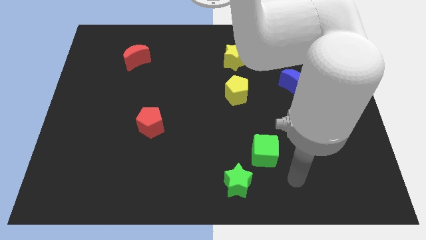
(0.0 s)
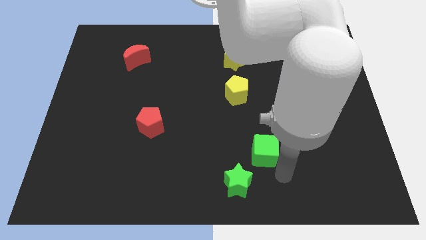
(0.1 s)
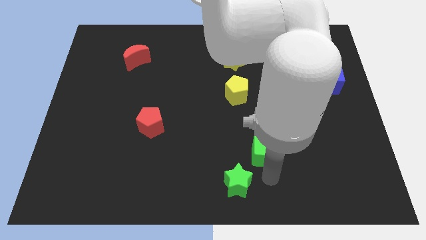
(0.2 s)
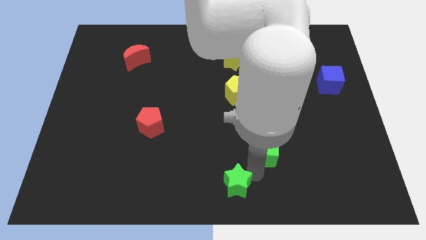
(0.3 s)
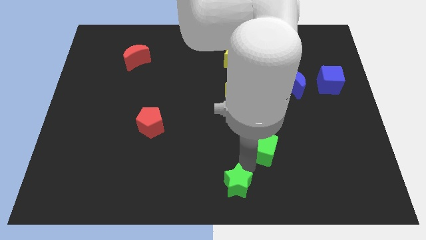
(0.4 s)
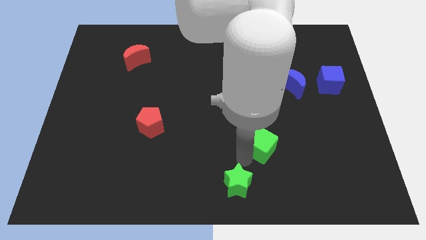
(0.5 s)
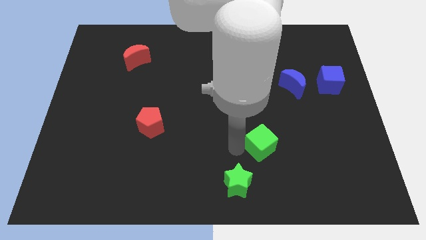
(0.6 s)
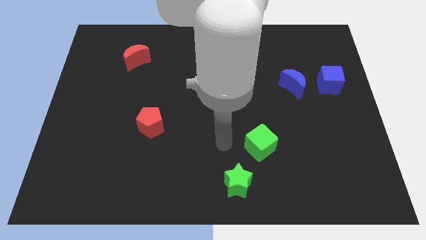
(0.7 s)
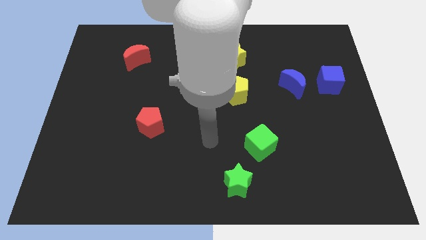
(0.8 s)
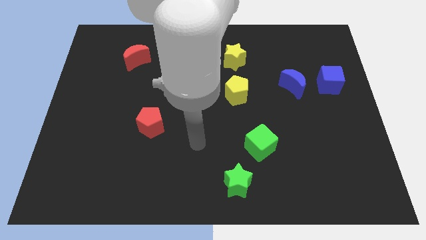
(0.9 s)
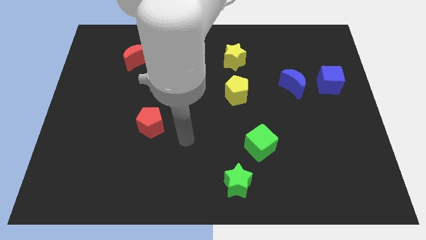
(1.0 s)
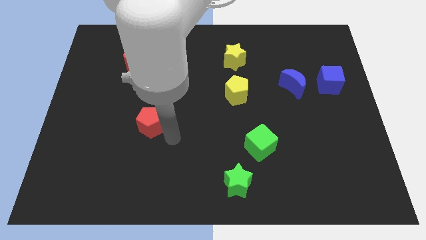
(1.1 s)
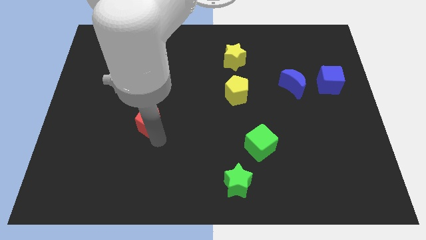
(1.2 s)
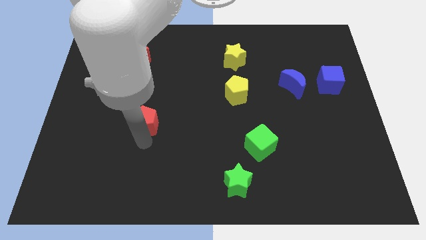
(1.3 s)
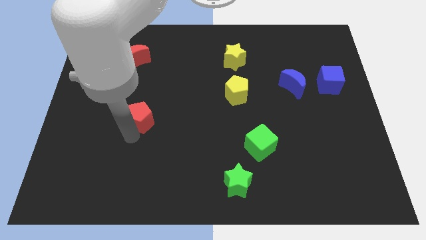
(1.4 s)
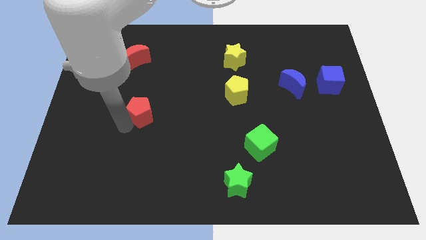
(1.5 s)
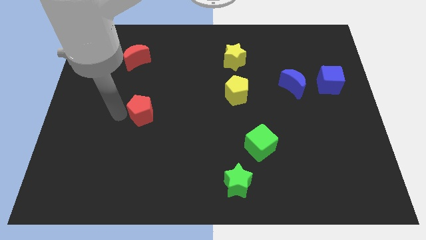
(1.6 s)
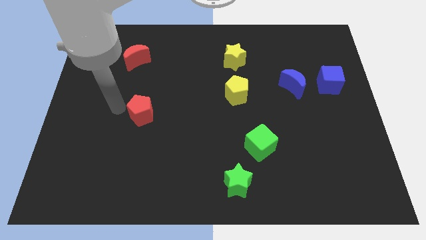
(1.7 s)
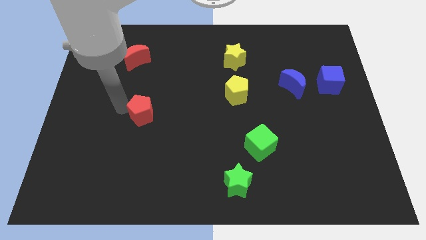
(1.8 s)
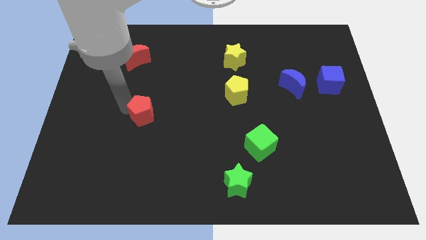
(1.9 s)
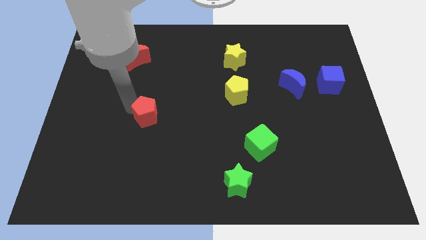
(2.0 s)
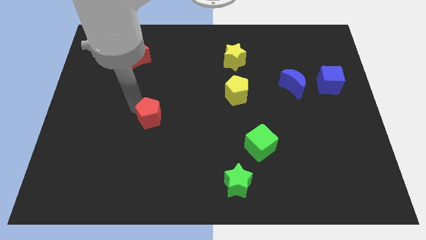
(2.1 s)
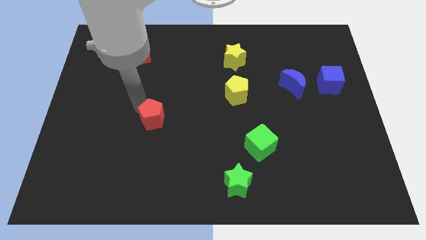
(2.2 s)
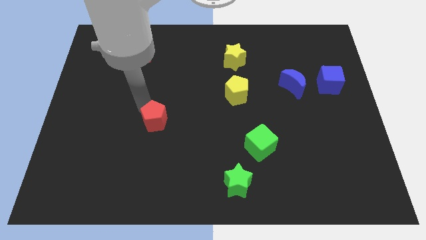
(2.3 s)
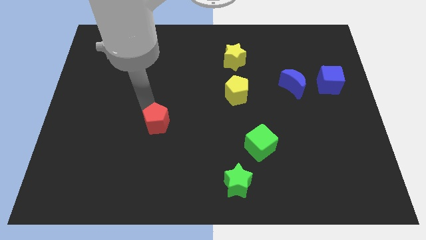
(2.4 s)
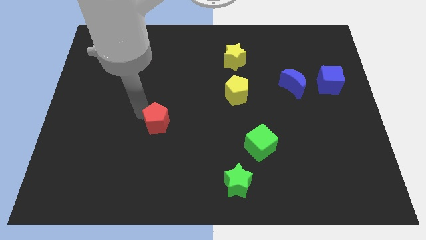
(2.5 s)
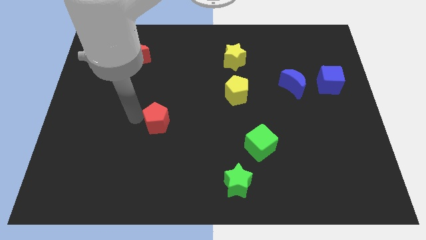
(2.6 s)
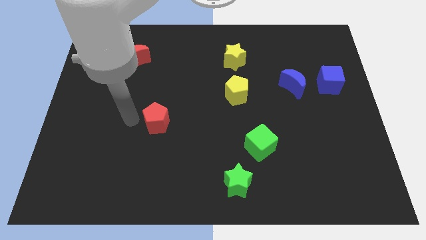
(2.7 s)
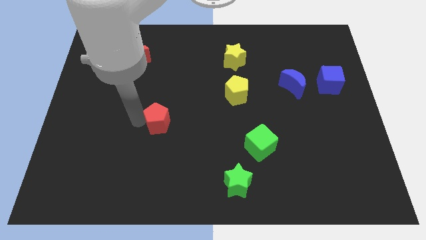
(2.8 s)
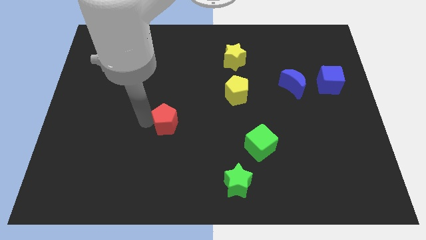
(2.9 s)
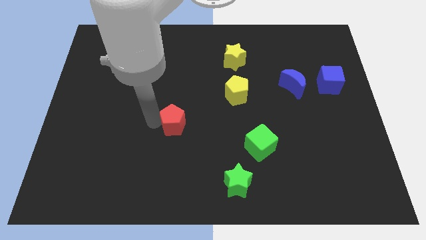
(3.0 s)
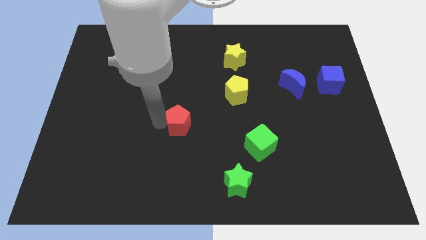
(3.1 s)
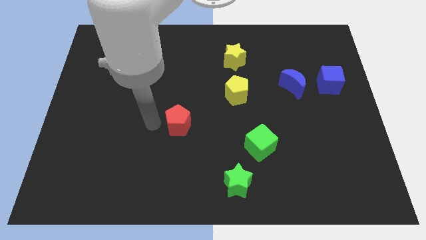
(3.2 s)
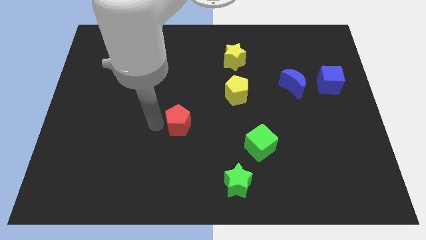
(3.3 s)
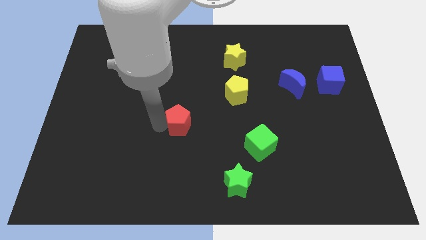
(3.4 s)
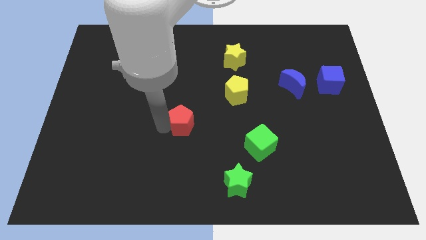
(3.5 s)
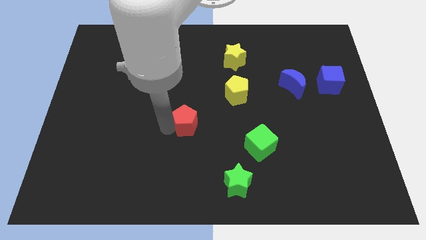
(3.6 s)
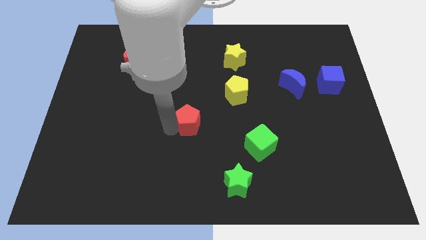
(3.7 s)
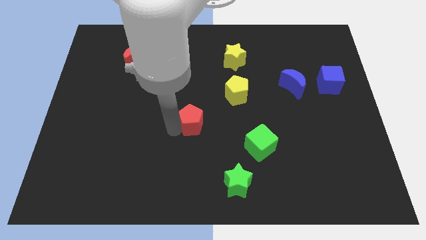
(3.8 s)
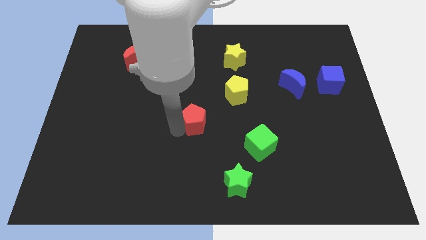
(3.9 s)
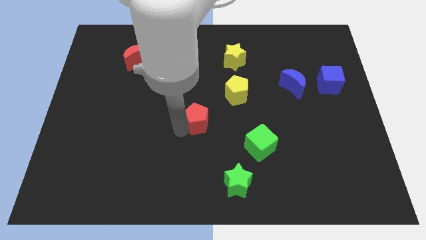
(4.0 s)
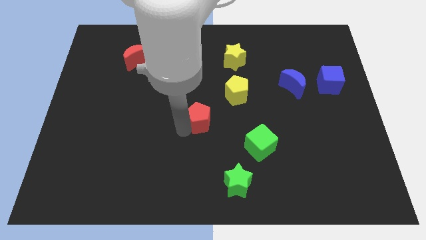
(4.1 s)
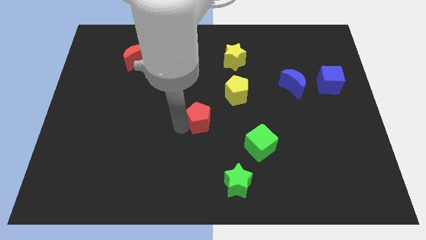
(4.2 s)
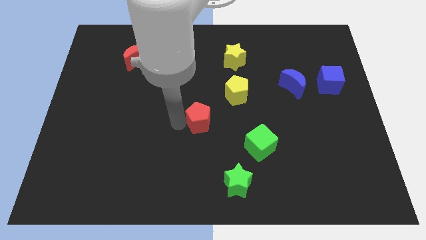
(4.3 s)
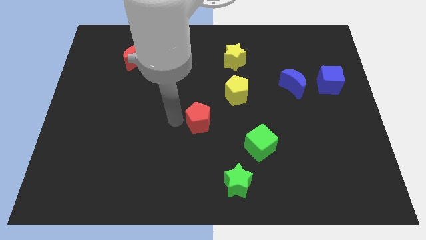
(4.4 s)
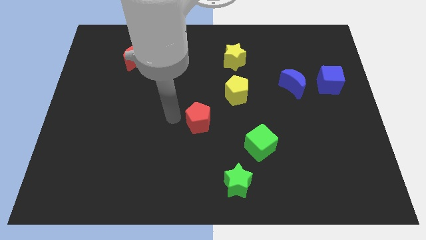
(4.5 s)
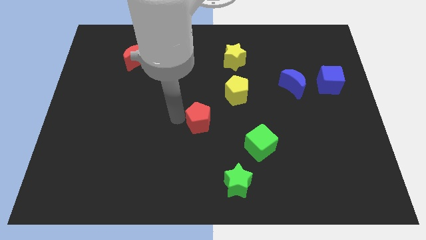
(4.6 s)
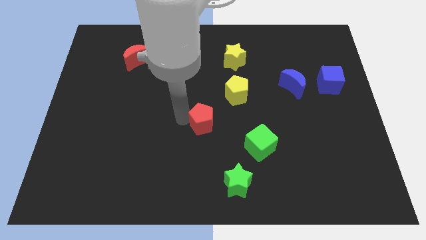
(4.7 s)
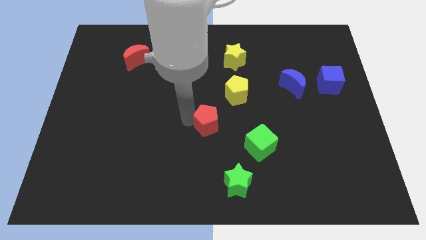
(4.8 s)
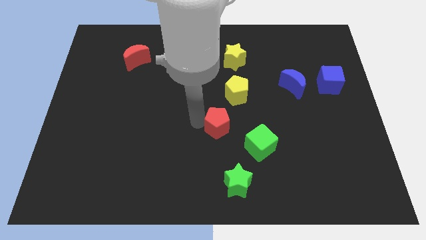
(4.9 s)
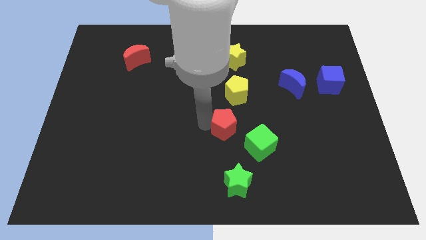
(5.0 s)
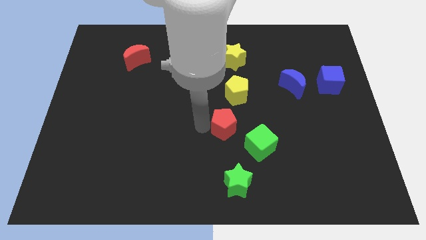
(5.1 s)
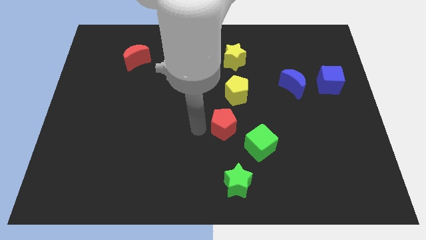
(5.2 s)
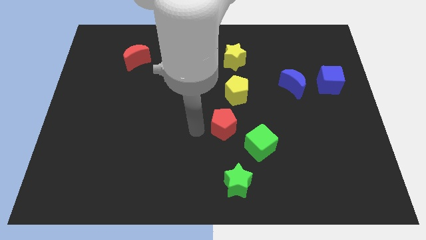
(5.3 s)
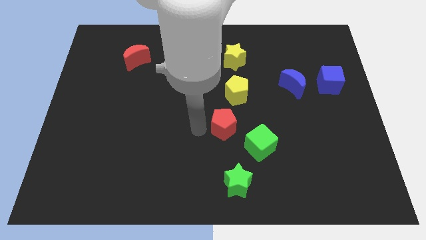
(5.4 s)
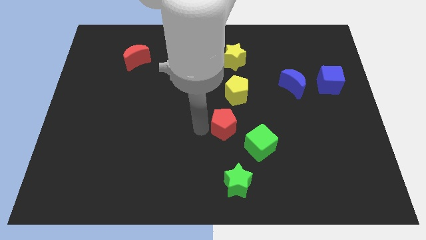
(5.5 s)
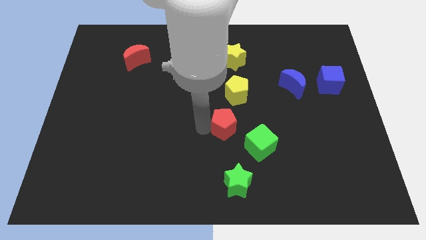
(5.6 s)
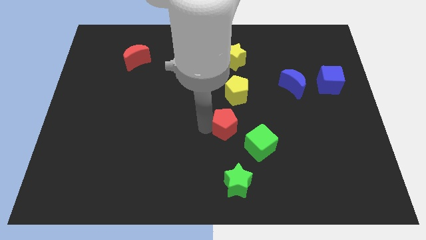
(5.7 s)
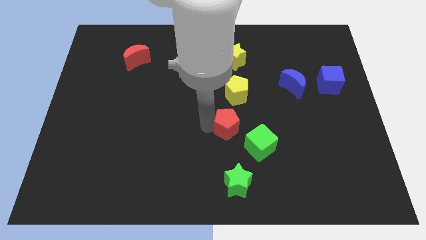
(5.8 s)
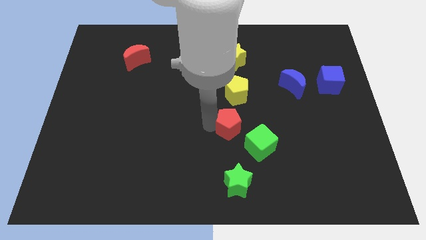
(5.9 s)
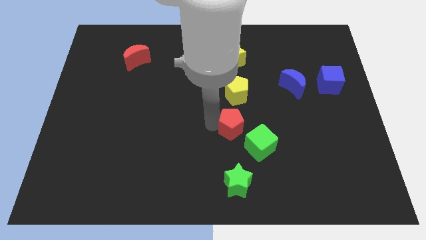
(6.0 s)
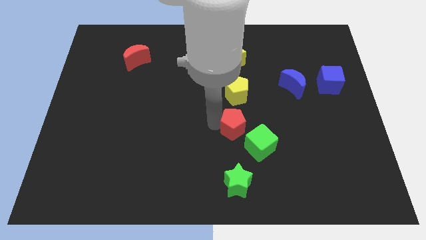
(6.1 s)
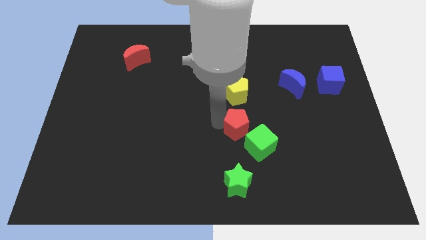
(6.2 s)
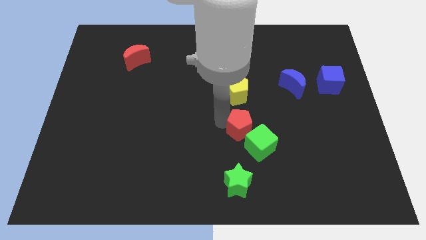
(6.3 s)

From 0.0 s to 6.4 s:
push the red pentagon to the right

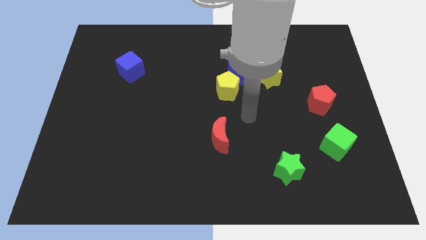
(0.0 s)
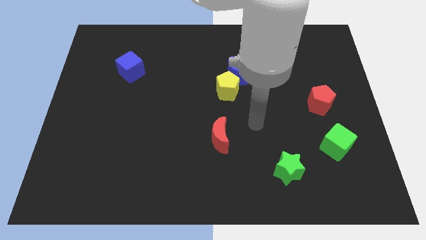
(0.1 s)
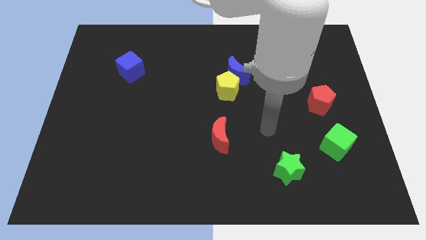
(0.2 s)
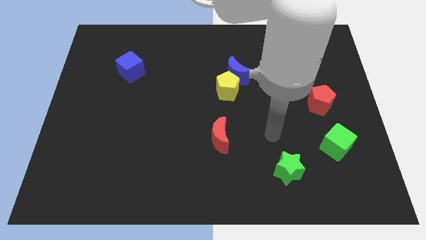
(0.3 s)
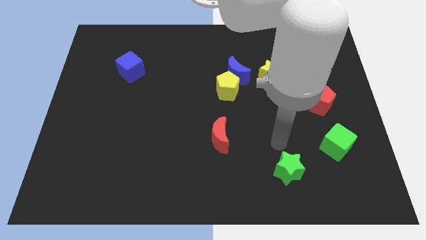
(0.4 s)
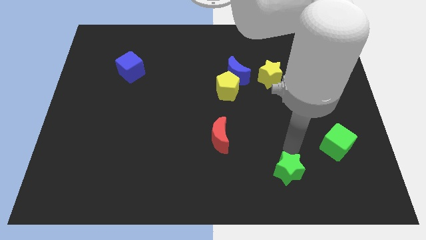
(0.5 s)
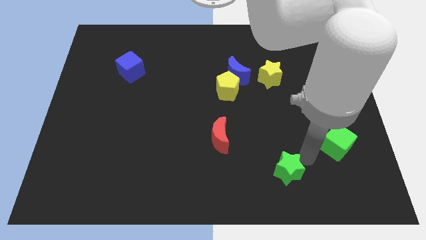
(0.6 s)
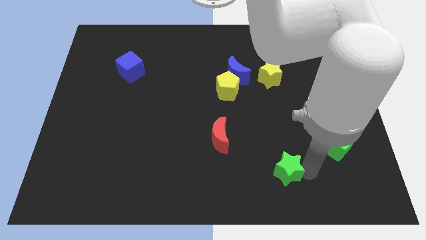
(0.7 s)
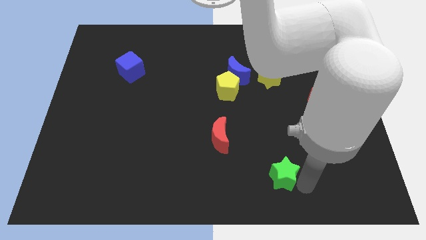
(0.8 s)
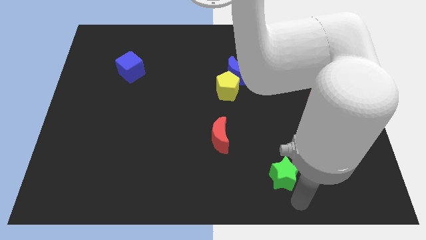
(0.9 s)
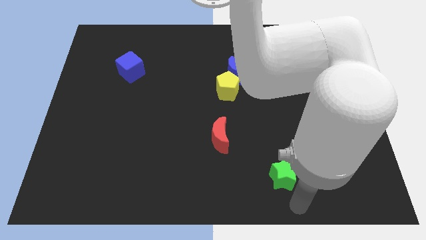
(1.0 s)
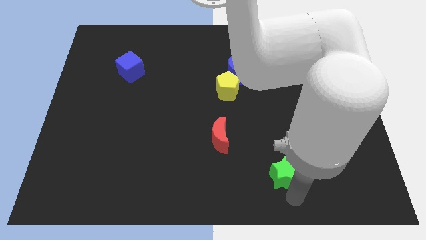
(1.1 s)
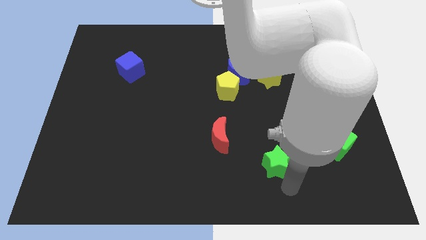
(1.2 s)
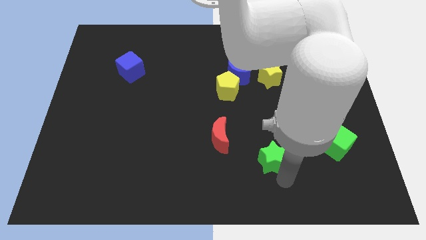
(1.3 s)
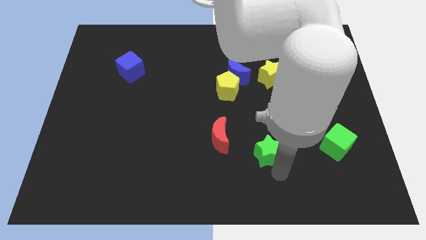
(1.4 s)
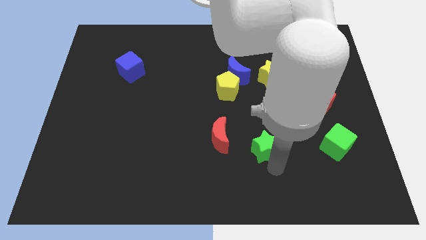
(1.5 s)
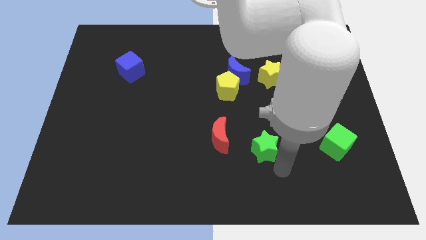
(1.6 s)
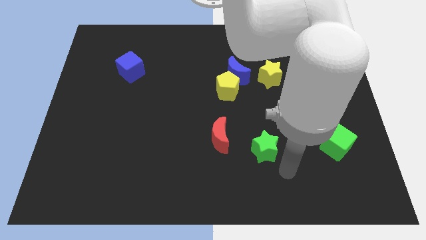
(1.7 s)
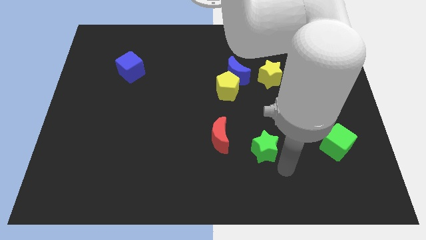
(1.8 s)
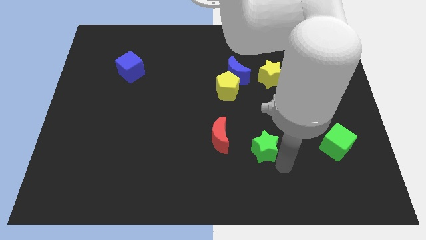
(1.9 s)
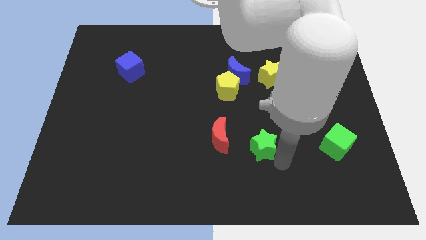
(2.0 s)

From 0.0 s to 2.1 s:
slightly move the green star up and to the left

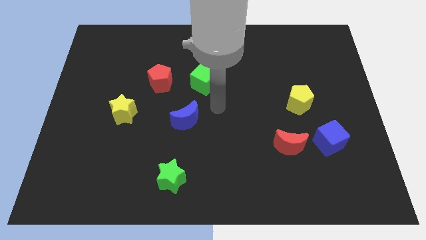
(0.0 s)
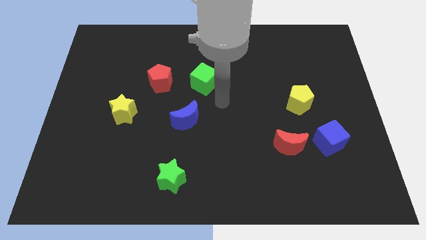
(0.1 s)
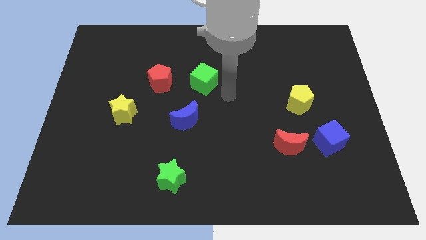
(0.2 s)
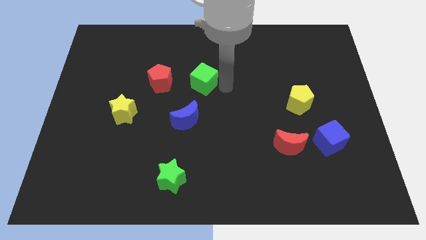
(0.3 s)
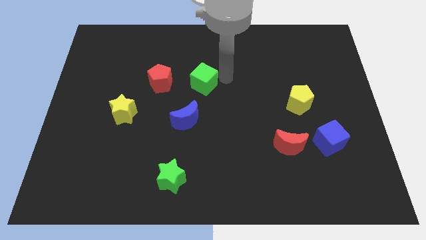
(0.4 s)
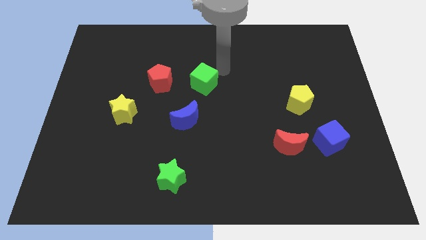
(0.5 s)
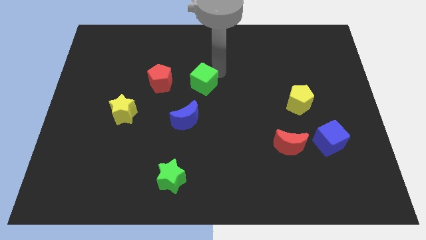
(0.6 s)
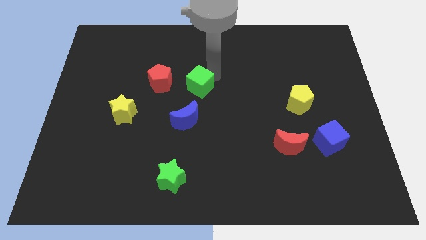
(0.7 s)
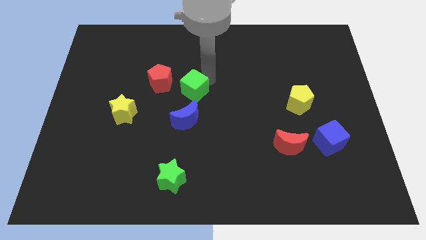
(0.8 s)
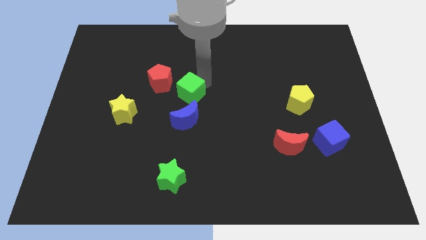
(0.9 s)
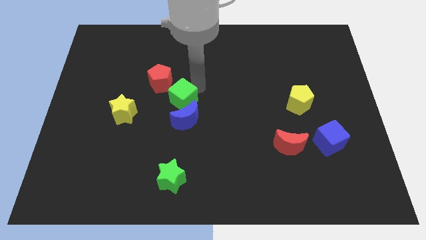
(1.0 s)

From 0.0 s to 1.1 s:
slightly slide the green cube downwards and then left
